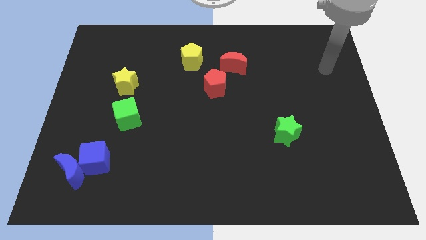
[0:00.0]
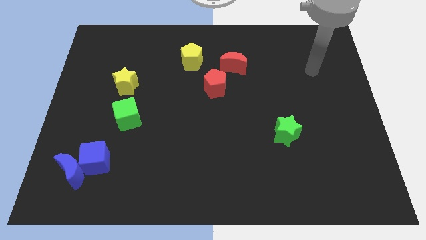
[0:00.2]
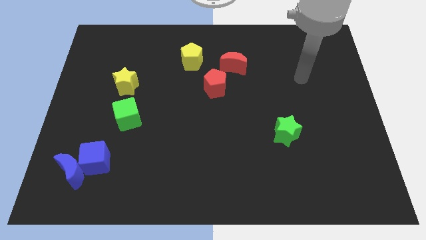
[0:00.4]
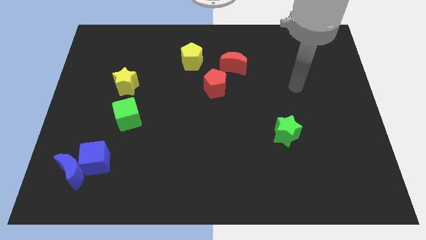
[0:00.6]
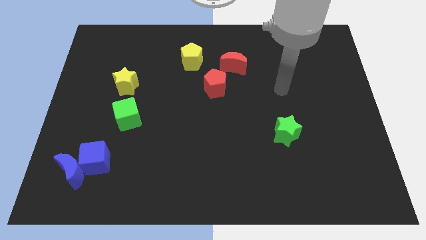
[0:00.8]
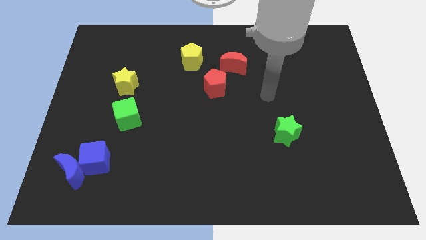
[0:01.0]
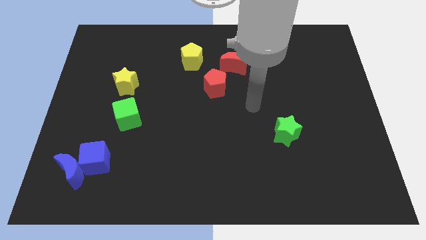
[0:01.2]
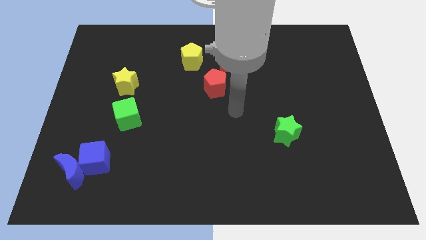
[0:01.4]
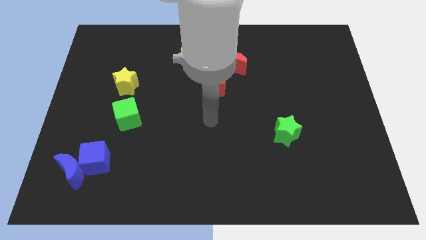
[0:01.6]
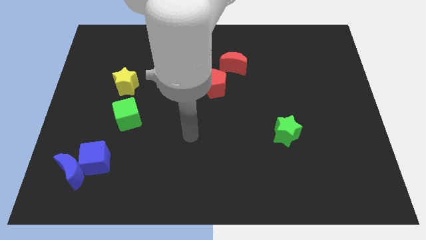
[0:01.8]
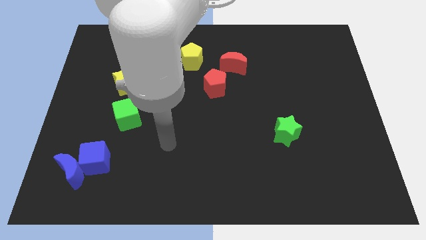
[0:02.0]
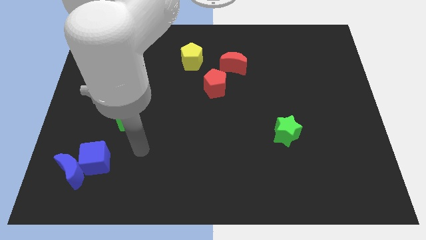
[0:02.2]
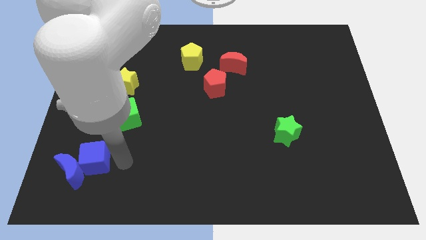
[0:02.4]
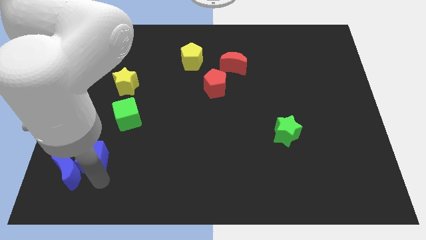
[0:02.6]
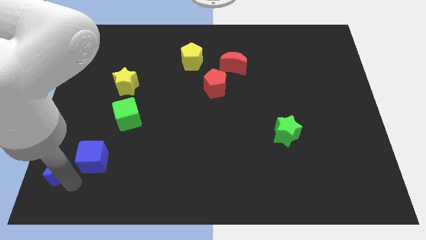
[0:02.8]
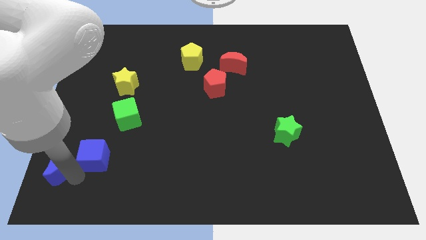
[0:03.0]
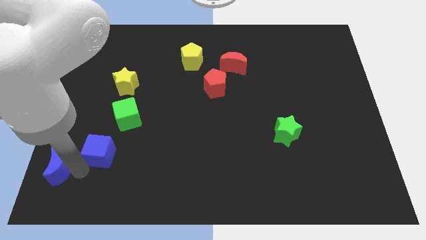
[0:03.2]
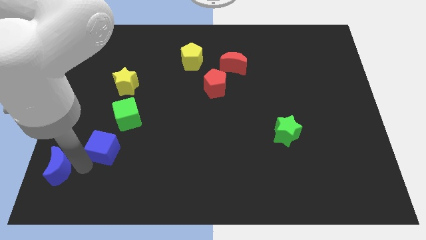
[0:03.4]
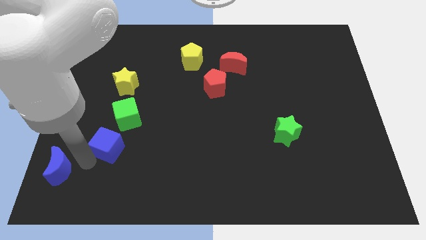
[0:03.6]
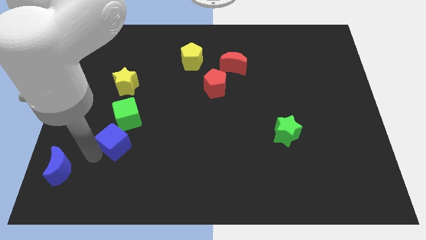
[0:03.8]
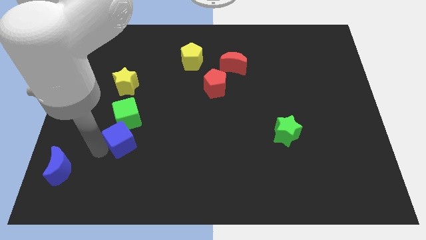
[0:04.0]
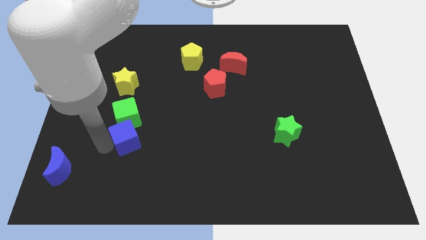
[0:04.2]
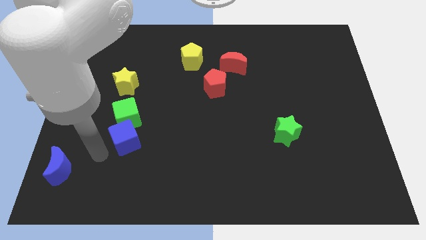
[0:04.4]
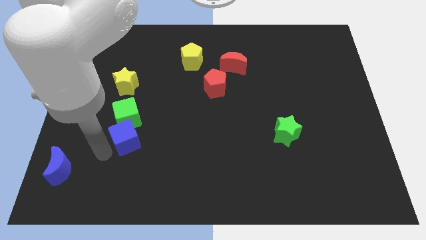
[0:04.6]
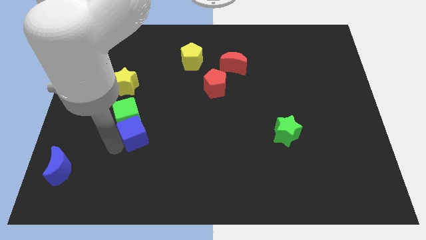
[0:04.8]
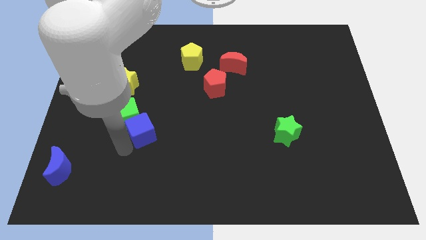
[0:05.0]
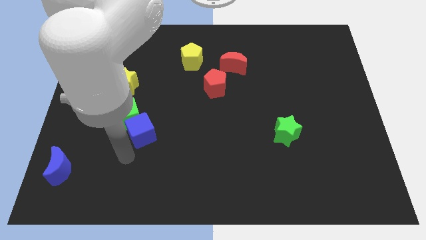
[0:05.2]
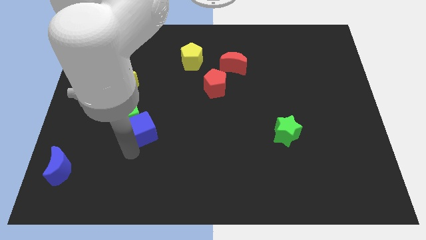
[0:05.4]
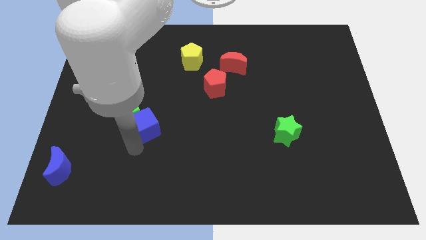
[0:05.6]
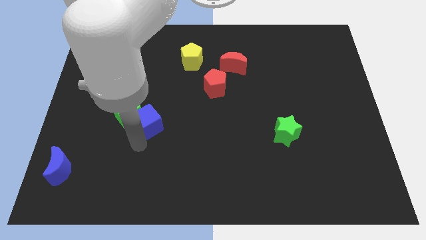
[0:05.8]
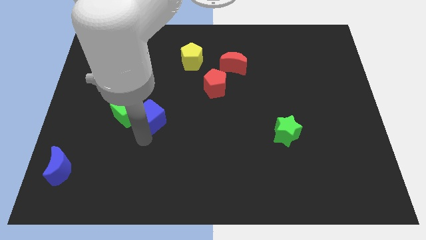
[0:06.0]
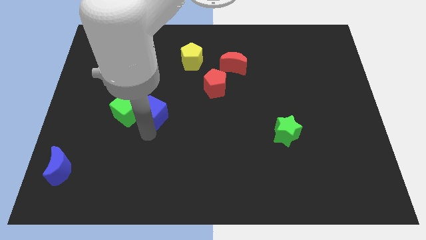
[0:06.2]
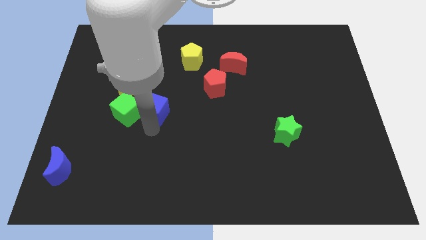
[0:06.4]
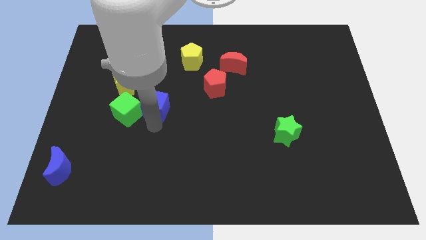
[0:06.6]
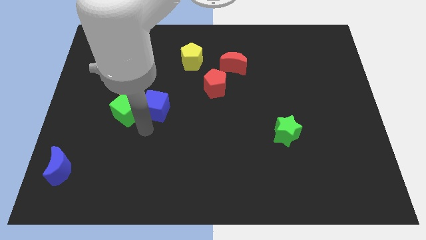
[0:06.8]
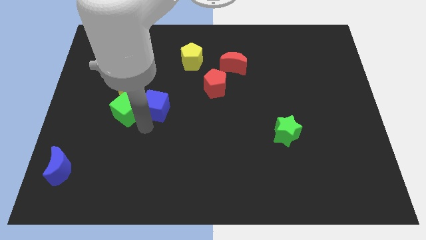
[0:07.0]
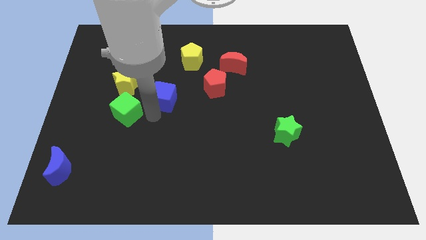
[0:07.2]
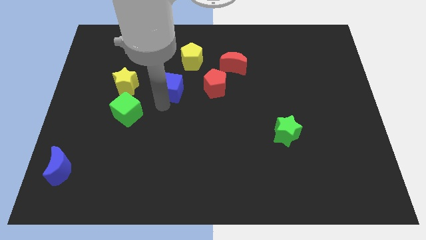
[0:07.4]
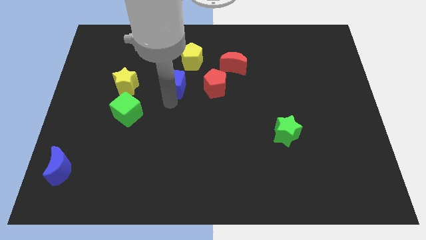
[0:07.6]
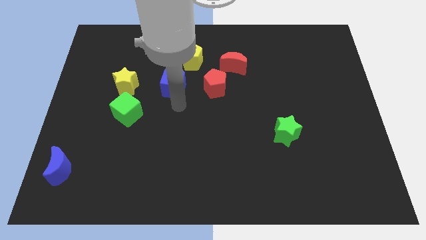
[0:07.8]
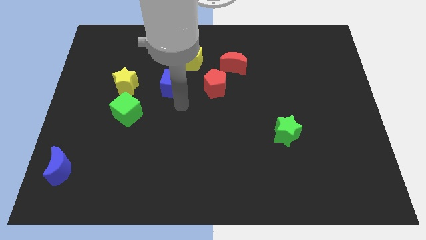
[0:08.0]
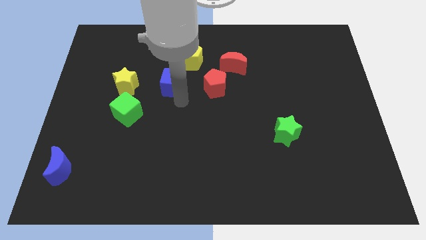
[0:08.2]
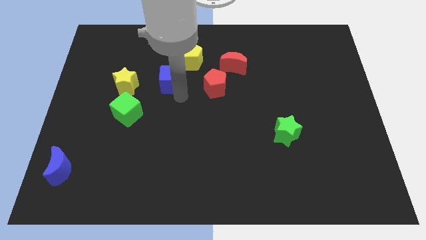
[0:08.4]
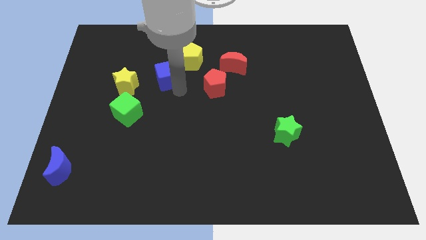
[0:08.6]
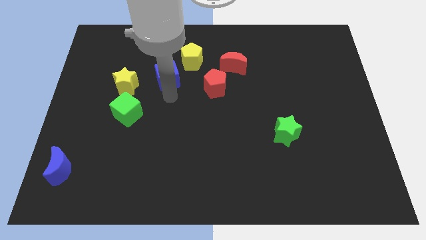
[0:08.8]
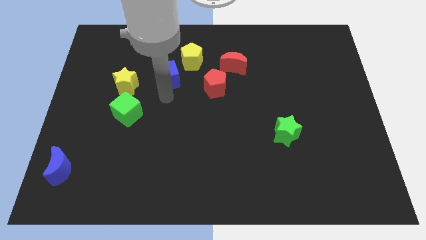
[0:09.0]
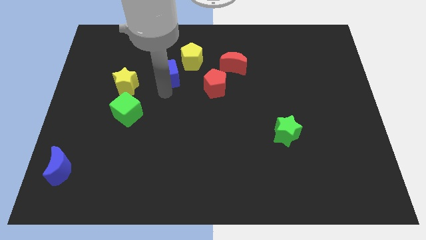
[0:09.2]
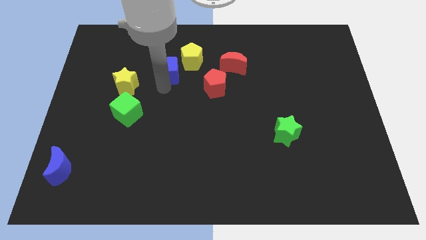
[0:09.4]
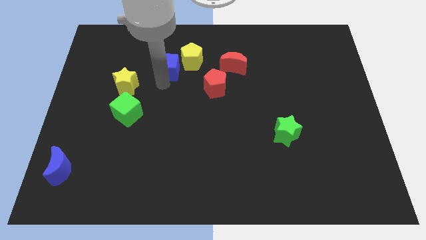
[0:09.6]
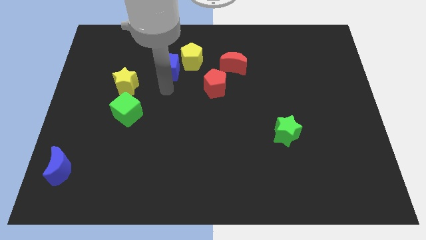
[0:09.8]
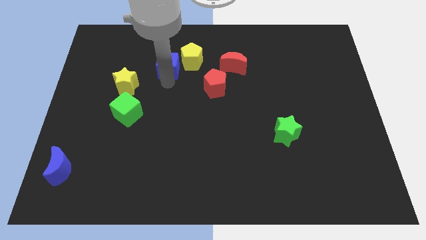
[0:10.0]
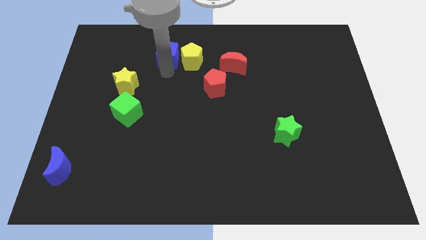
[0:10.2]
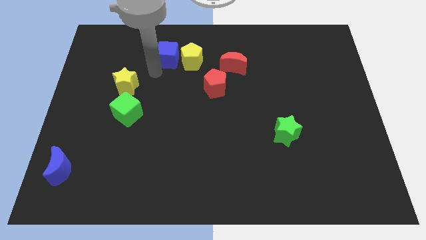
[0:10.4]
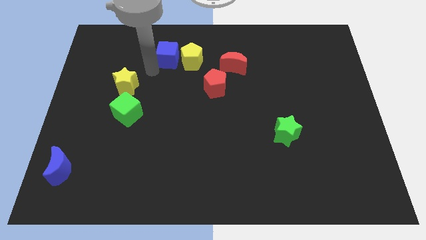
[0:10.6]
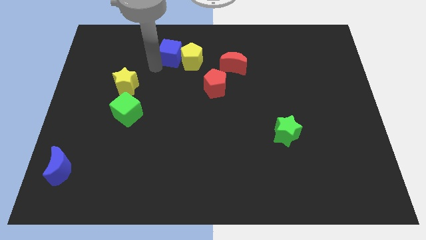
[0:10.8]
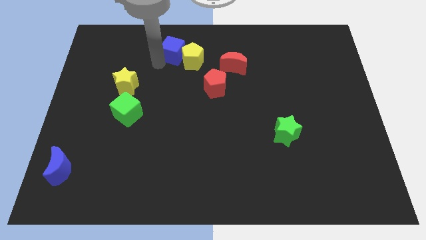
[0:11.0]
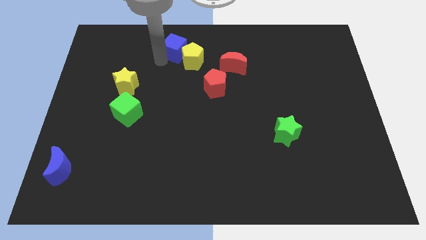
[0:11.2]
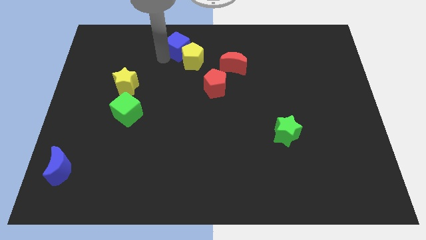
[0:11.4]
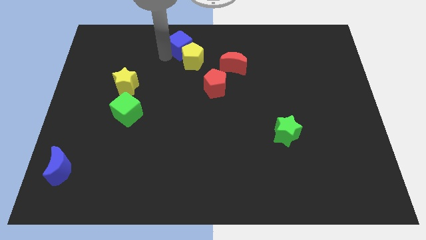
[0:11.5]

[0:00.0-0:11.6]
push the blue cube to the top side

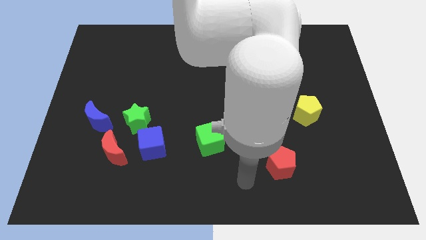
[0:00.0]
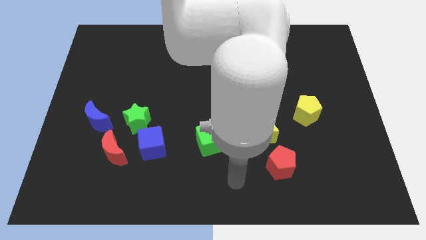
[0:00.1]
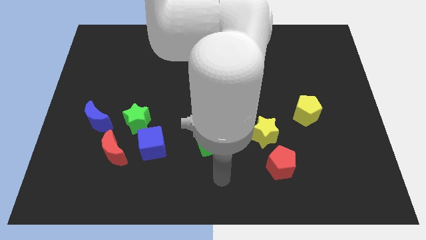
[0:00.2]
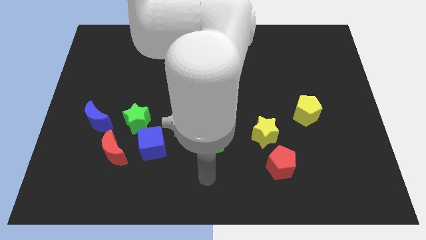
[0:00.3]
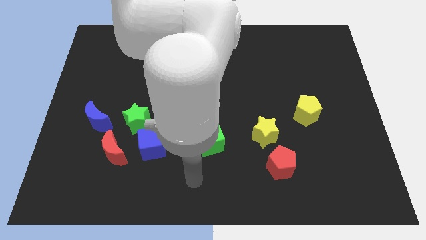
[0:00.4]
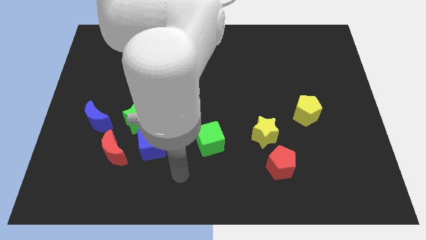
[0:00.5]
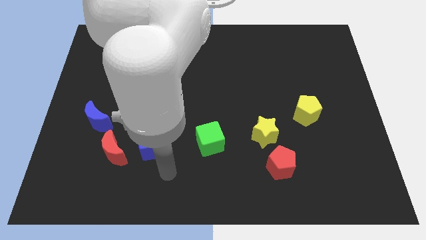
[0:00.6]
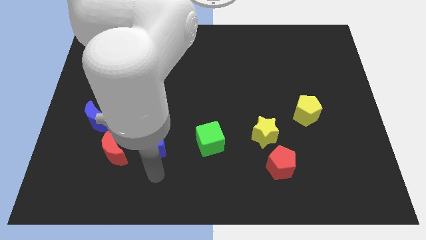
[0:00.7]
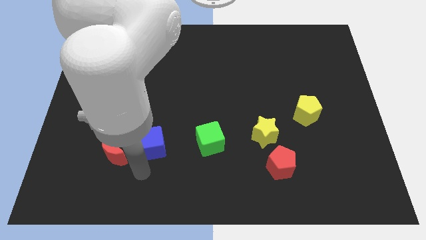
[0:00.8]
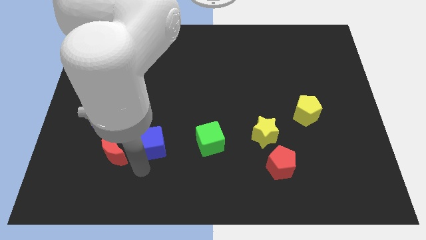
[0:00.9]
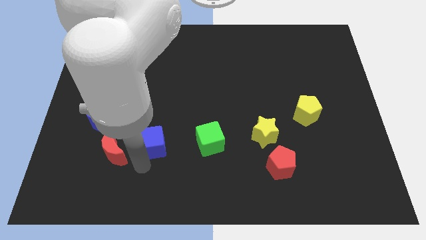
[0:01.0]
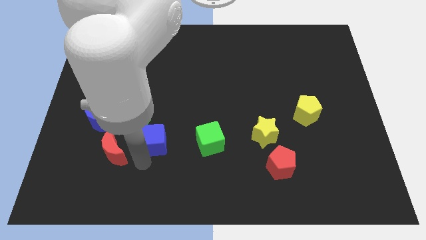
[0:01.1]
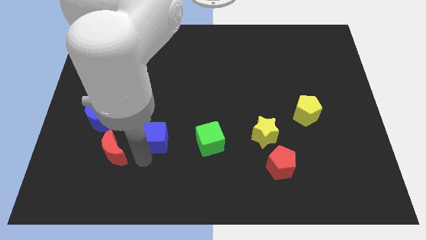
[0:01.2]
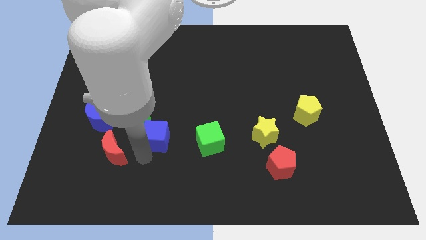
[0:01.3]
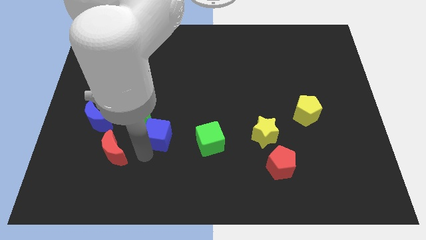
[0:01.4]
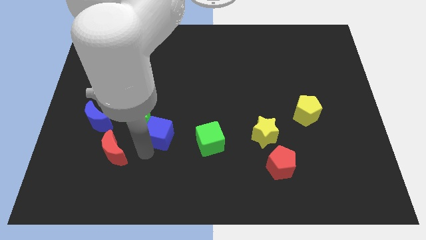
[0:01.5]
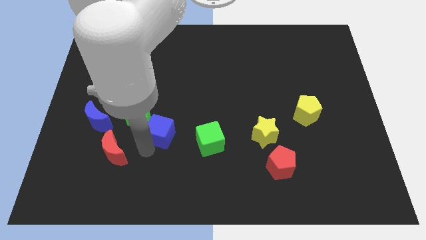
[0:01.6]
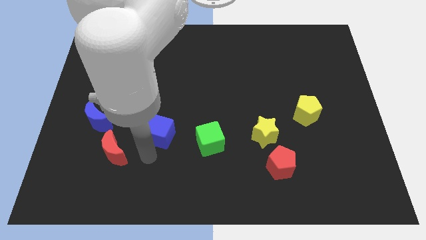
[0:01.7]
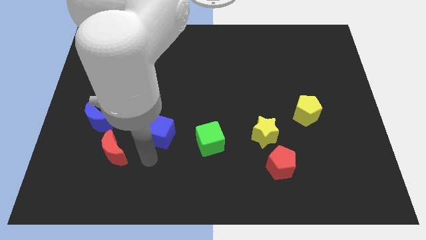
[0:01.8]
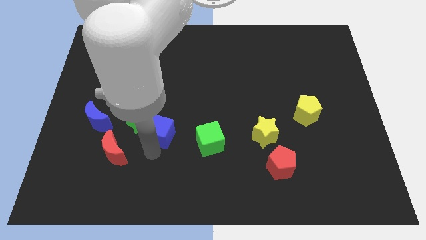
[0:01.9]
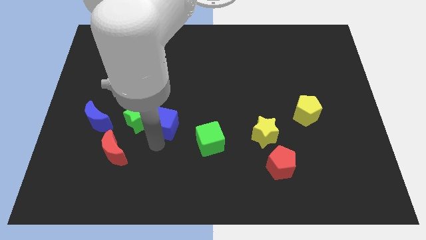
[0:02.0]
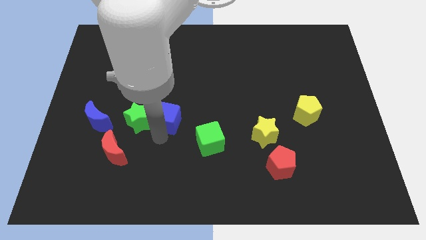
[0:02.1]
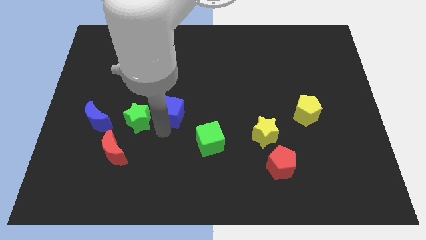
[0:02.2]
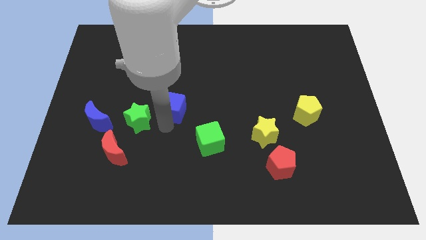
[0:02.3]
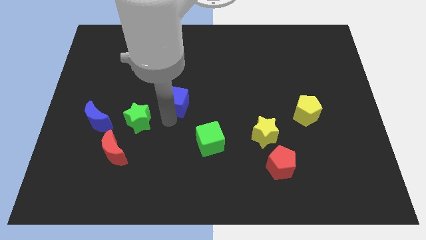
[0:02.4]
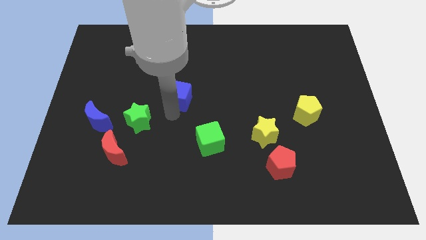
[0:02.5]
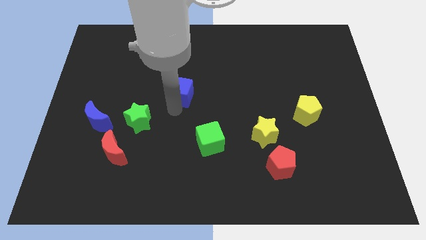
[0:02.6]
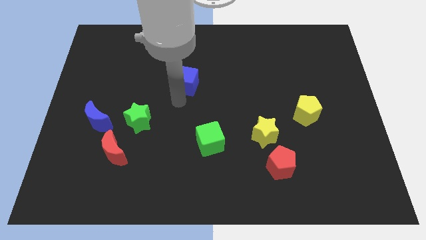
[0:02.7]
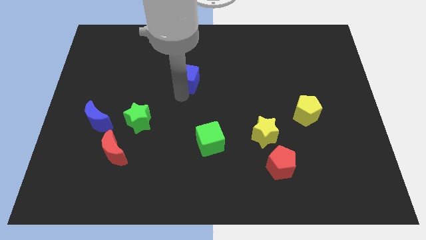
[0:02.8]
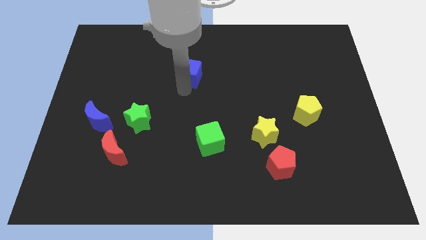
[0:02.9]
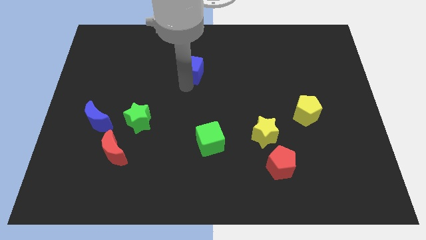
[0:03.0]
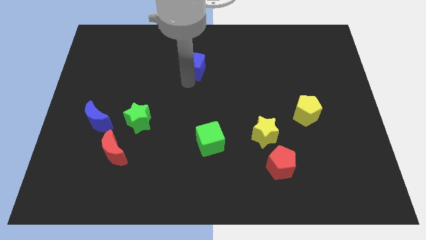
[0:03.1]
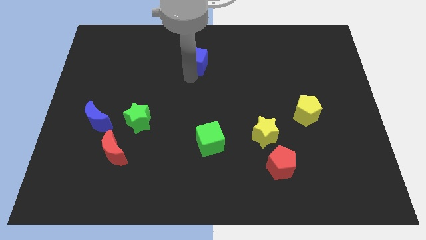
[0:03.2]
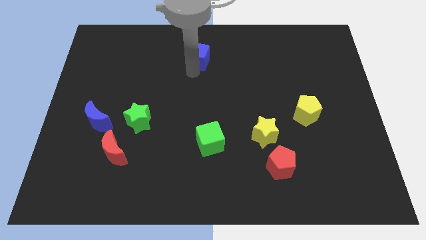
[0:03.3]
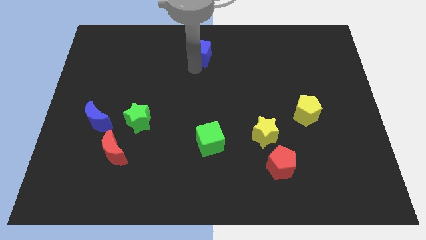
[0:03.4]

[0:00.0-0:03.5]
put the blue cube to the towards your base
